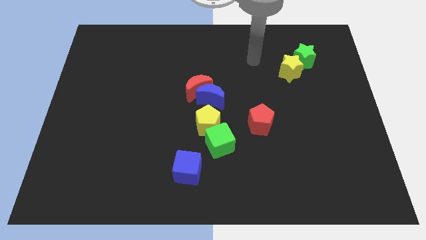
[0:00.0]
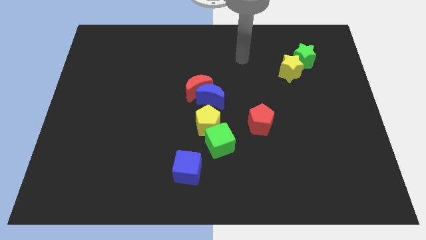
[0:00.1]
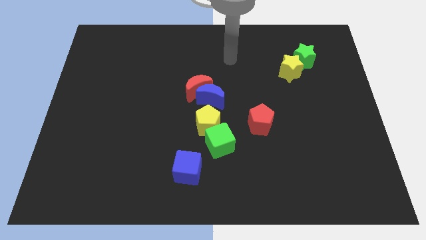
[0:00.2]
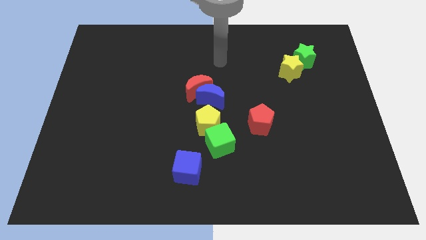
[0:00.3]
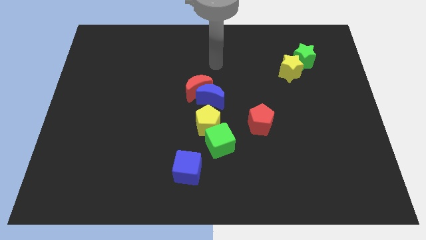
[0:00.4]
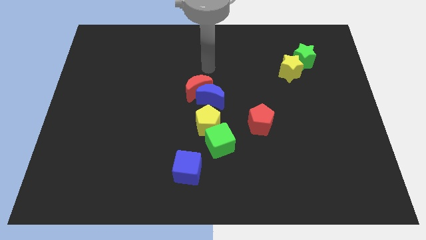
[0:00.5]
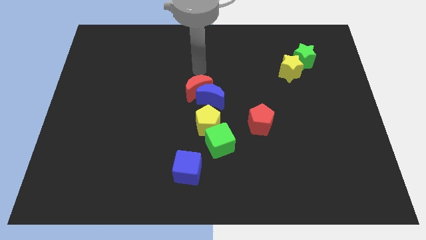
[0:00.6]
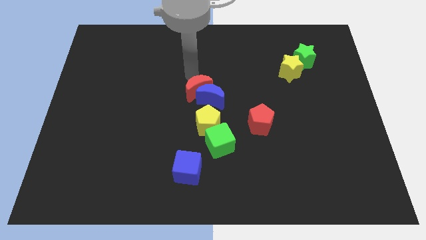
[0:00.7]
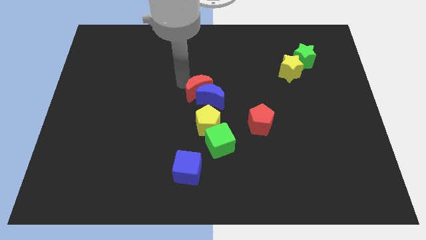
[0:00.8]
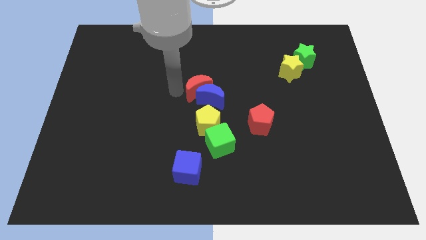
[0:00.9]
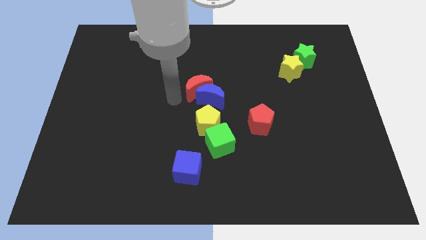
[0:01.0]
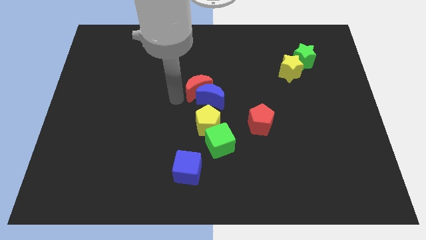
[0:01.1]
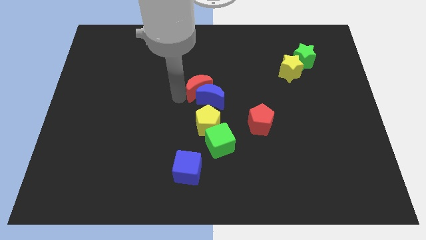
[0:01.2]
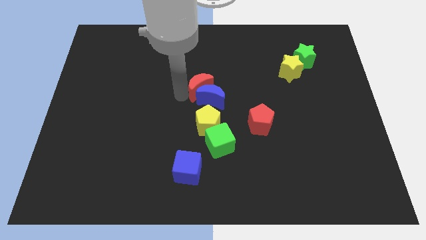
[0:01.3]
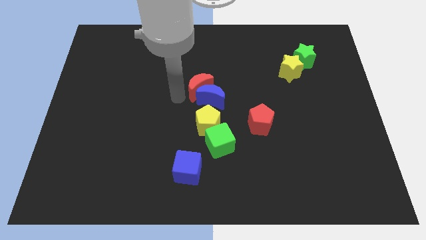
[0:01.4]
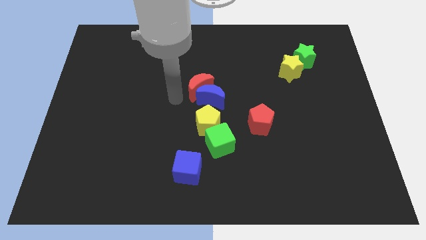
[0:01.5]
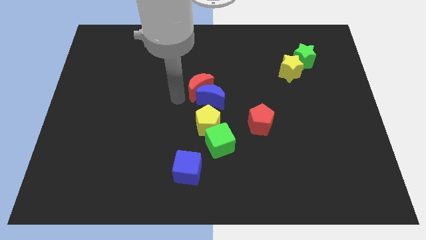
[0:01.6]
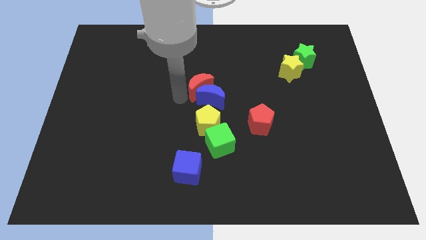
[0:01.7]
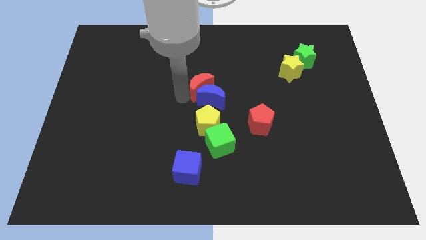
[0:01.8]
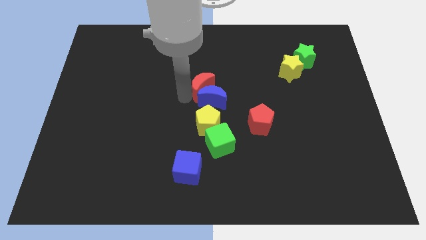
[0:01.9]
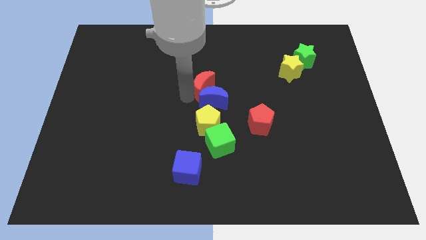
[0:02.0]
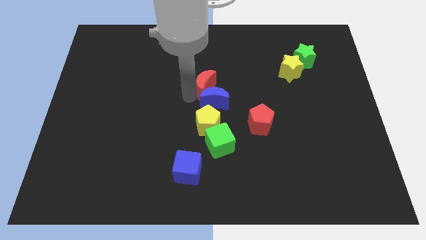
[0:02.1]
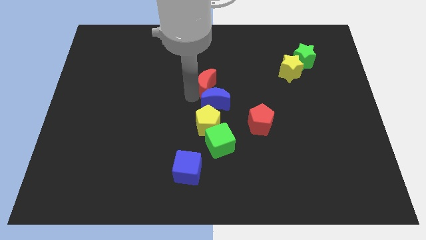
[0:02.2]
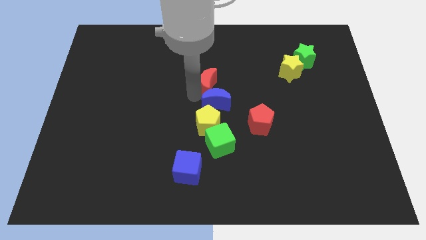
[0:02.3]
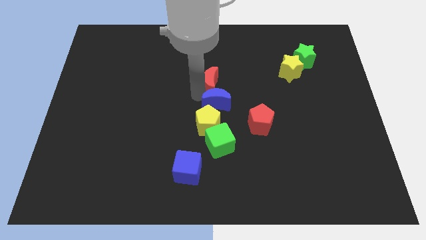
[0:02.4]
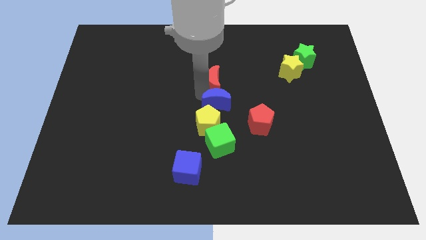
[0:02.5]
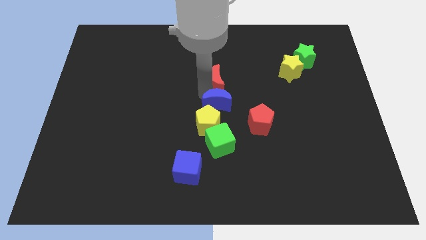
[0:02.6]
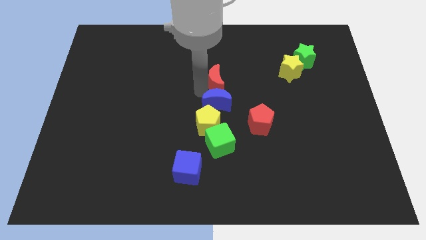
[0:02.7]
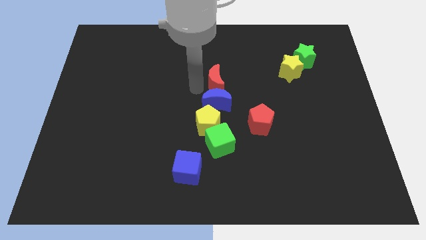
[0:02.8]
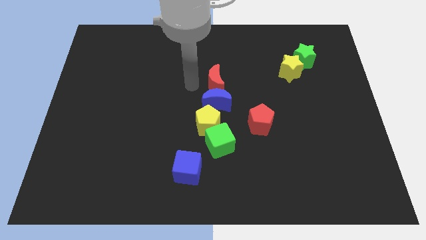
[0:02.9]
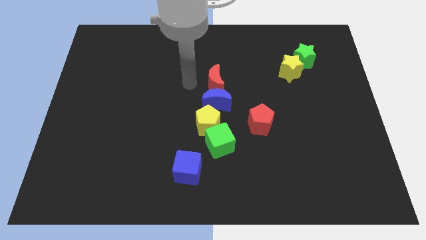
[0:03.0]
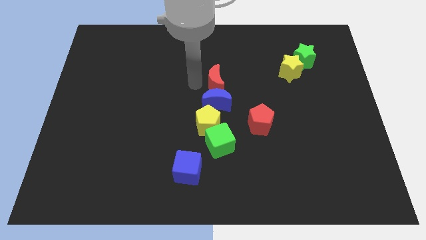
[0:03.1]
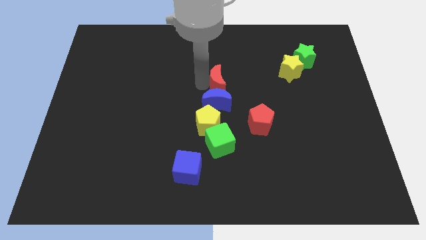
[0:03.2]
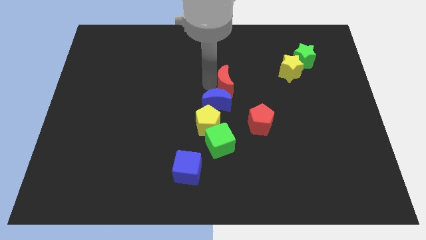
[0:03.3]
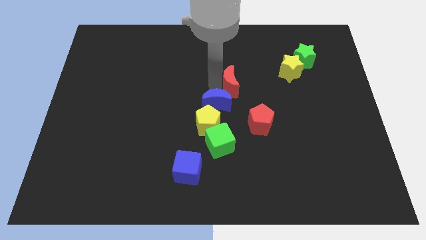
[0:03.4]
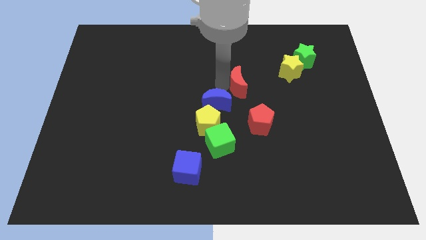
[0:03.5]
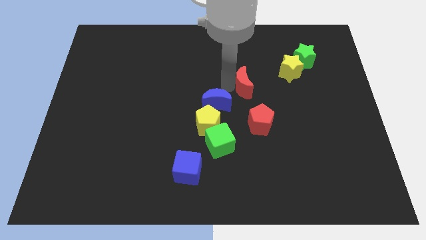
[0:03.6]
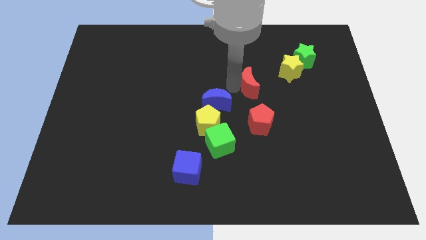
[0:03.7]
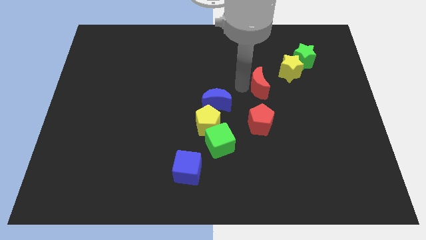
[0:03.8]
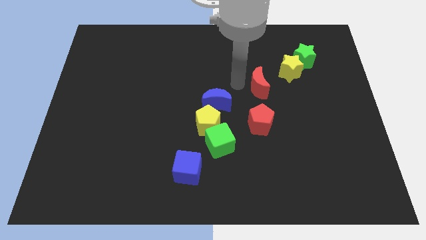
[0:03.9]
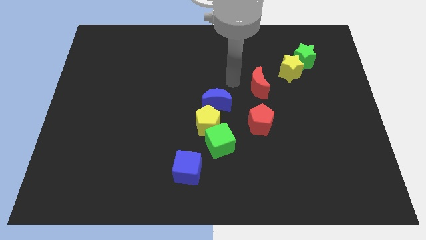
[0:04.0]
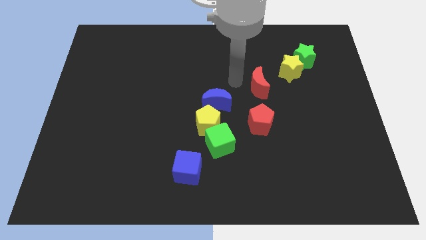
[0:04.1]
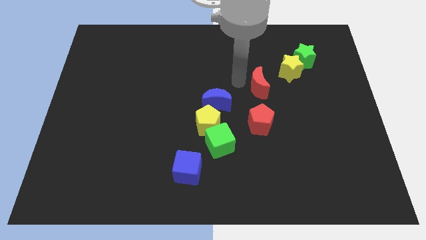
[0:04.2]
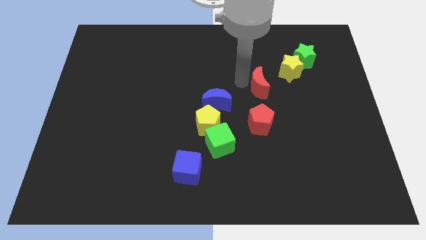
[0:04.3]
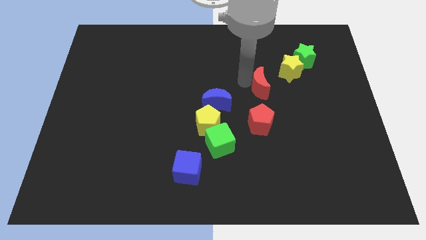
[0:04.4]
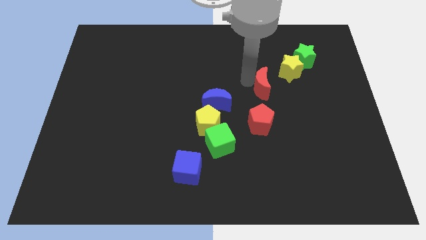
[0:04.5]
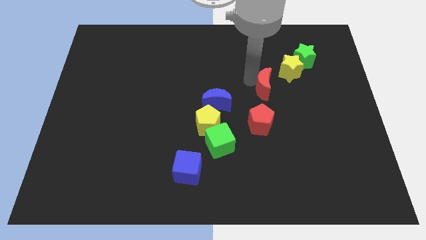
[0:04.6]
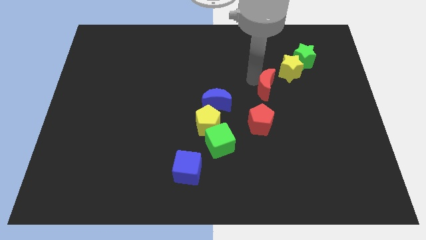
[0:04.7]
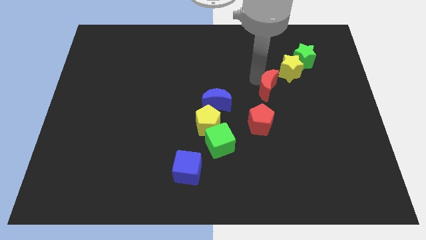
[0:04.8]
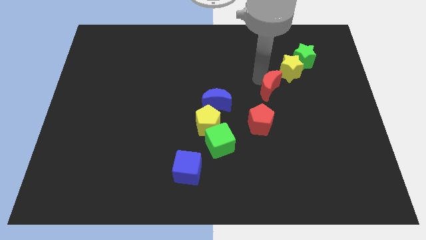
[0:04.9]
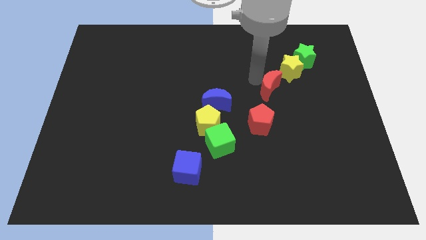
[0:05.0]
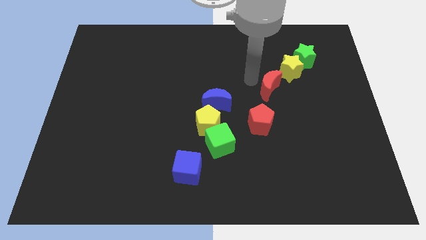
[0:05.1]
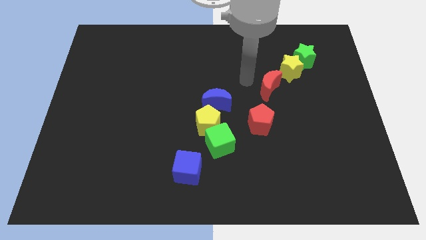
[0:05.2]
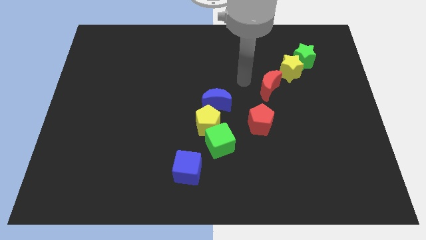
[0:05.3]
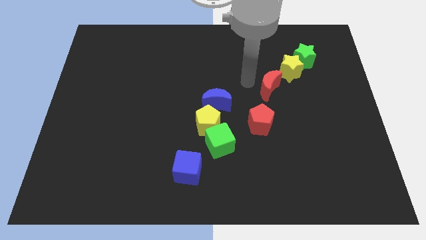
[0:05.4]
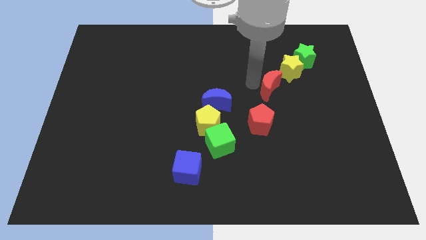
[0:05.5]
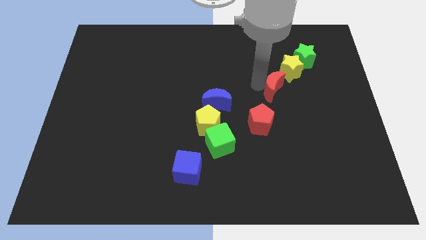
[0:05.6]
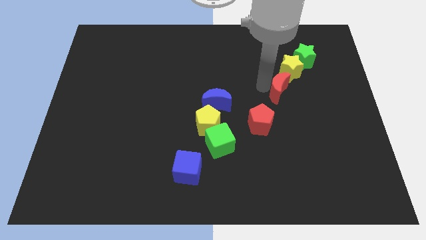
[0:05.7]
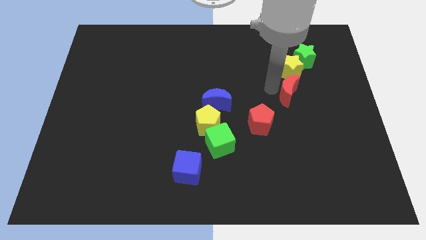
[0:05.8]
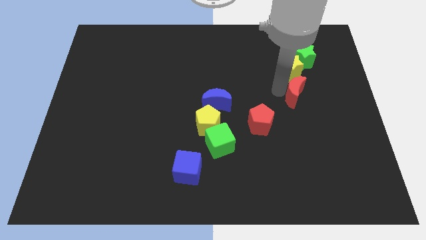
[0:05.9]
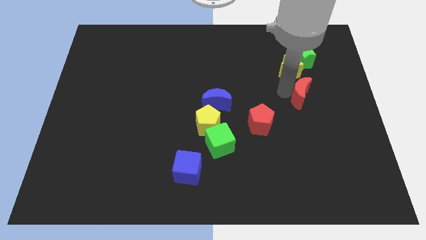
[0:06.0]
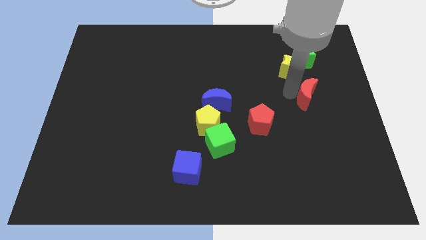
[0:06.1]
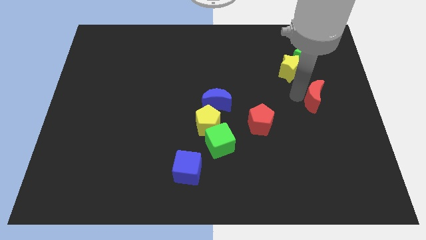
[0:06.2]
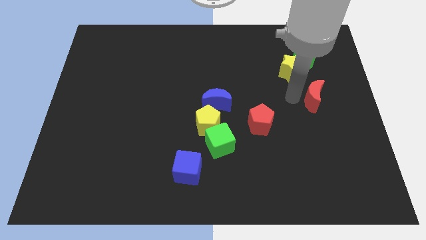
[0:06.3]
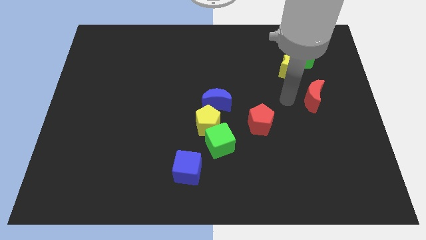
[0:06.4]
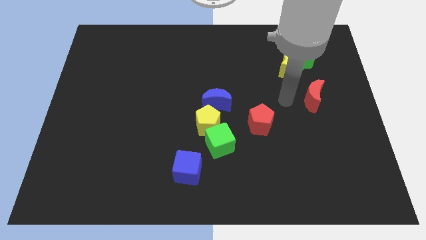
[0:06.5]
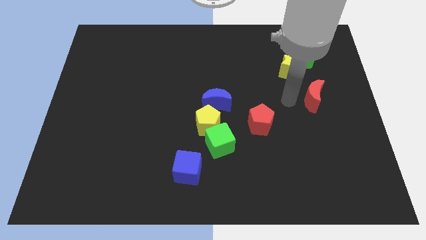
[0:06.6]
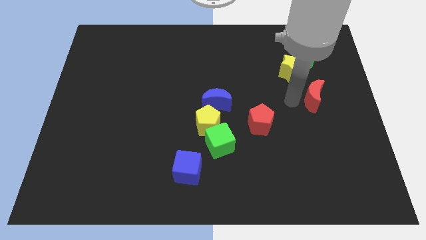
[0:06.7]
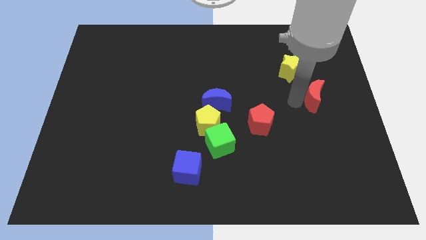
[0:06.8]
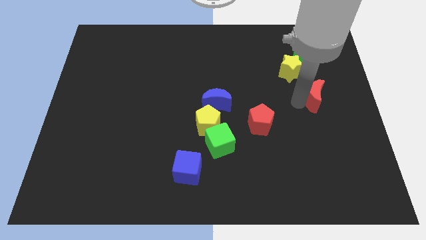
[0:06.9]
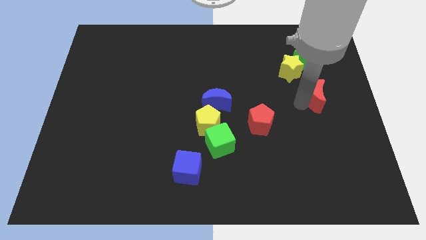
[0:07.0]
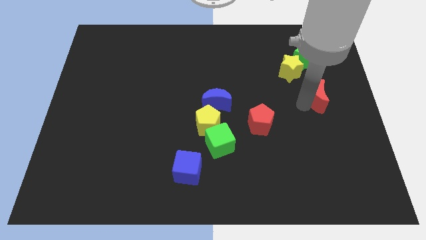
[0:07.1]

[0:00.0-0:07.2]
push the red moon to the right side of the board
